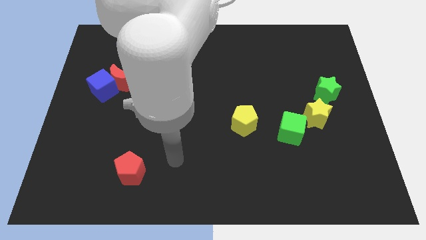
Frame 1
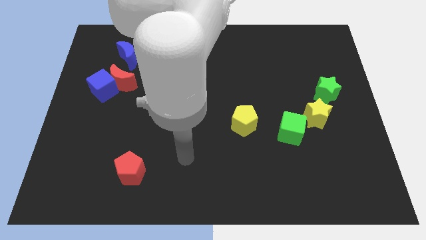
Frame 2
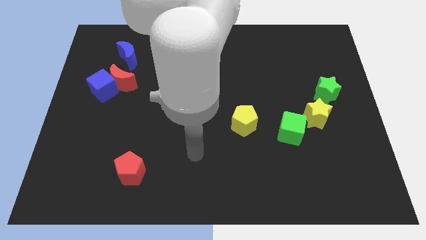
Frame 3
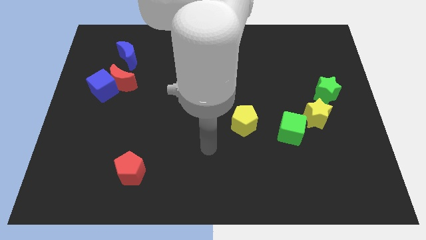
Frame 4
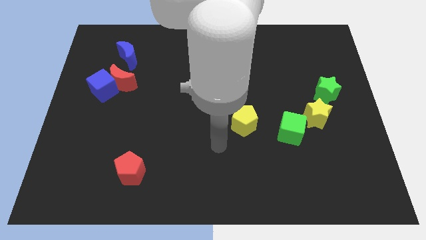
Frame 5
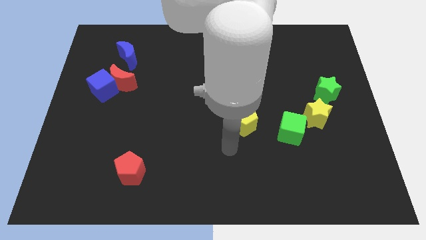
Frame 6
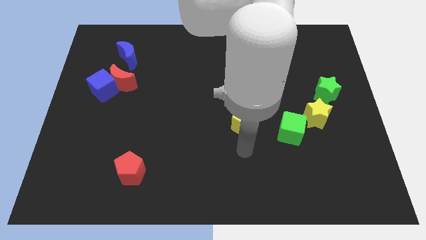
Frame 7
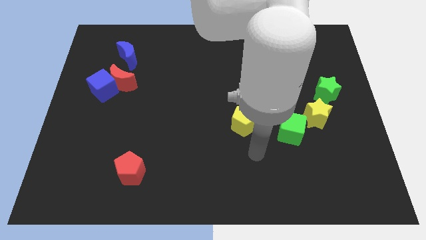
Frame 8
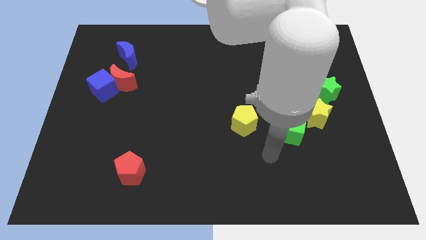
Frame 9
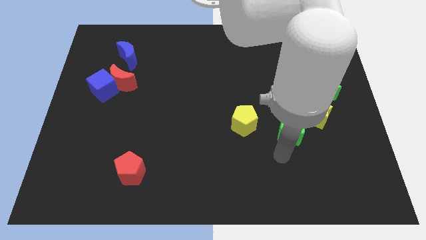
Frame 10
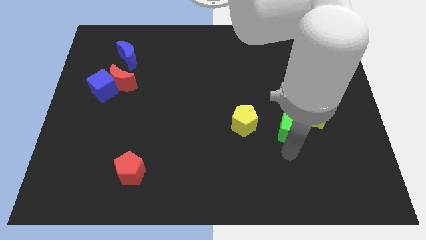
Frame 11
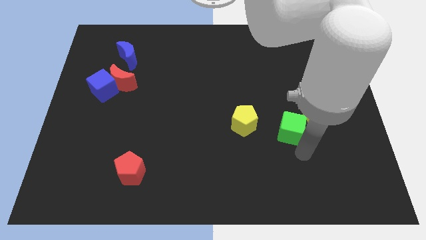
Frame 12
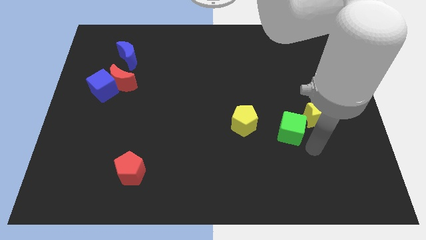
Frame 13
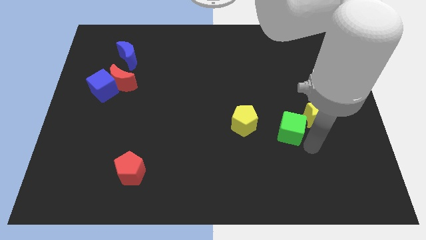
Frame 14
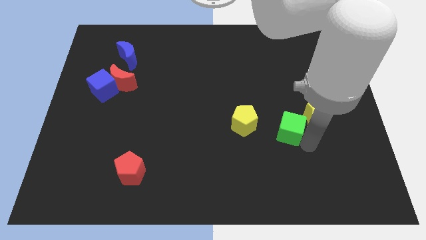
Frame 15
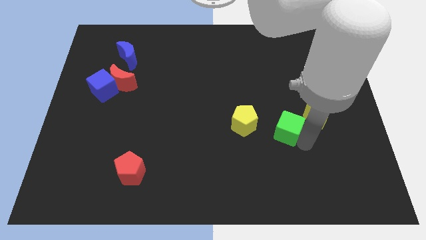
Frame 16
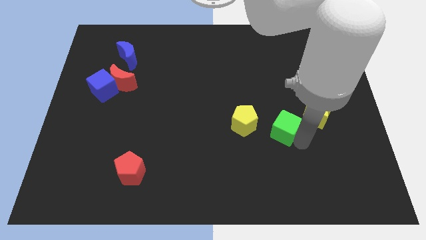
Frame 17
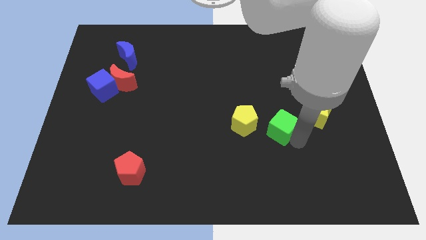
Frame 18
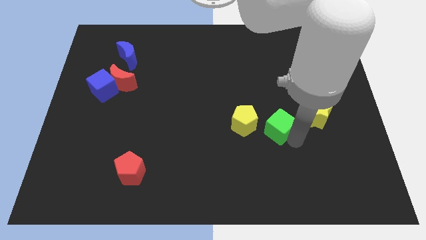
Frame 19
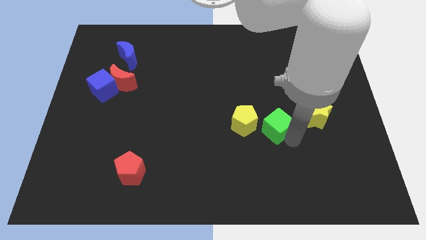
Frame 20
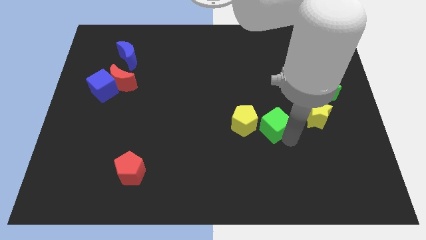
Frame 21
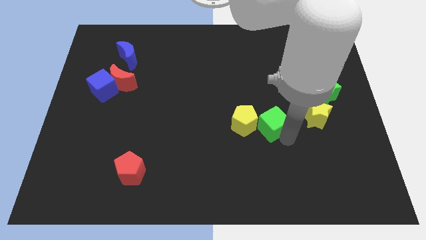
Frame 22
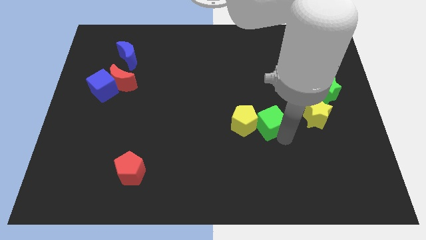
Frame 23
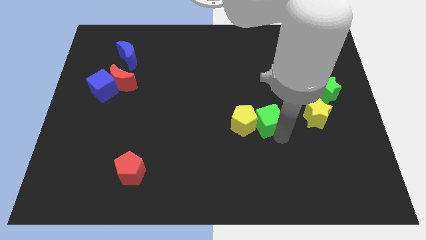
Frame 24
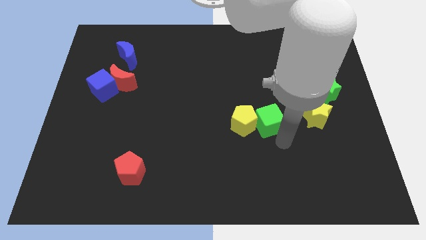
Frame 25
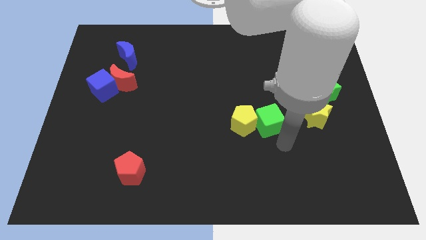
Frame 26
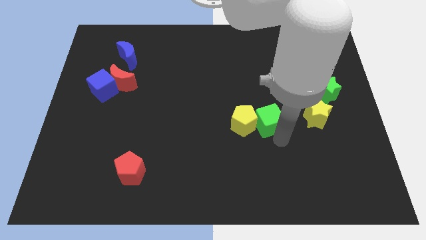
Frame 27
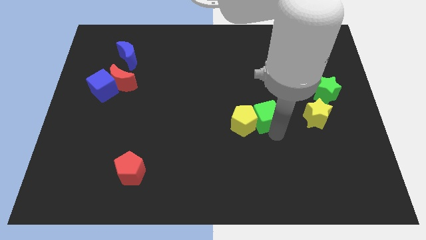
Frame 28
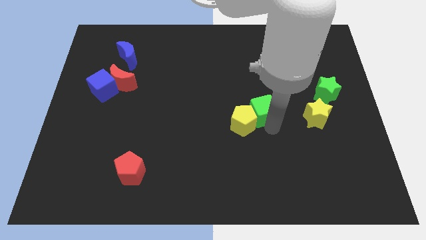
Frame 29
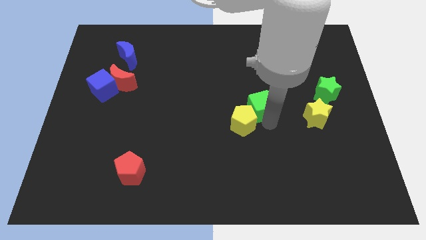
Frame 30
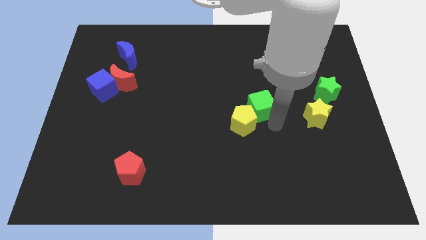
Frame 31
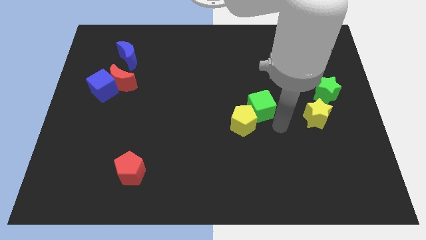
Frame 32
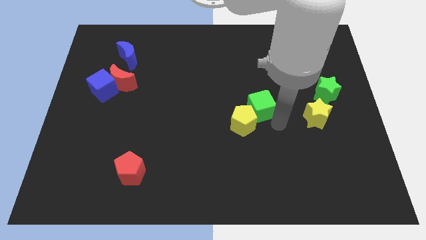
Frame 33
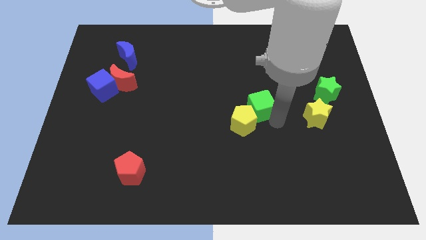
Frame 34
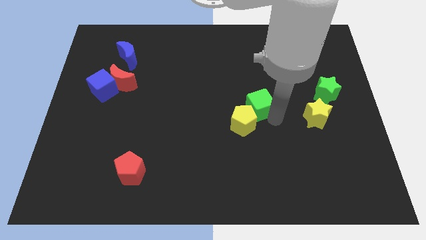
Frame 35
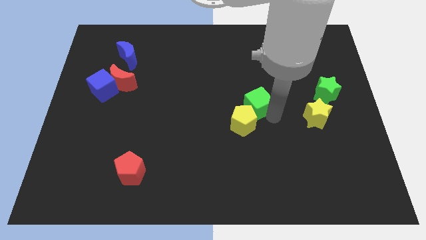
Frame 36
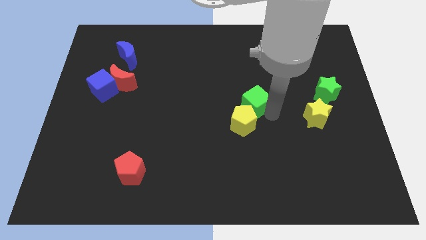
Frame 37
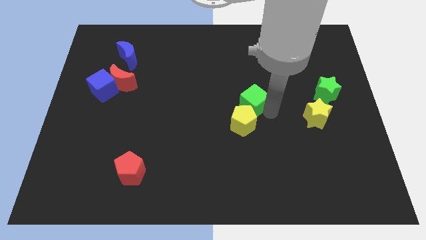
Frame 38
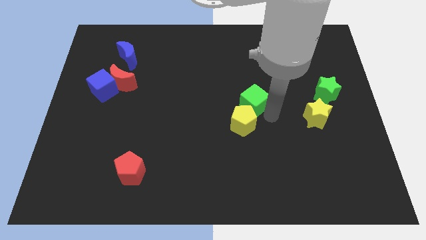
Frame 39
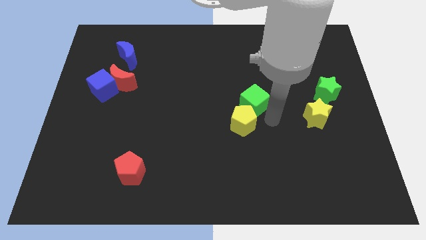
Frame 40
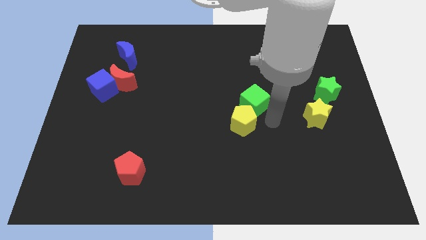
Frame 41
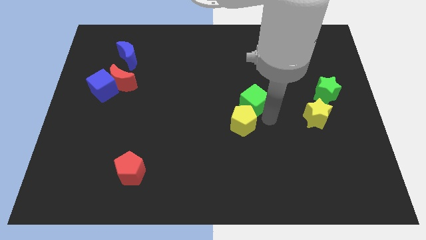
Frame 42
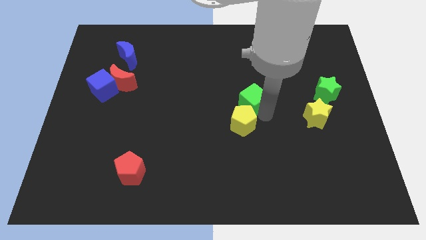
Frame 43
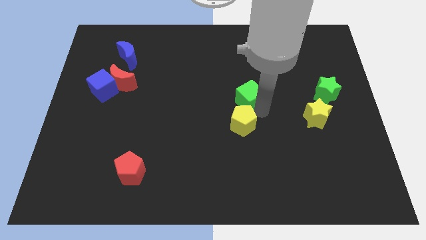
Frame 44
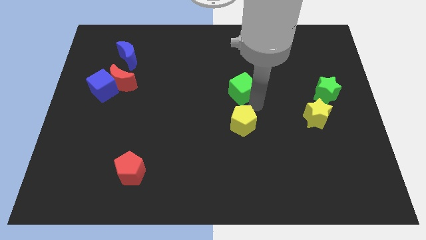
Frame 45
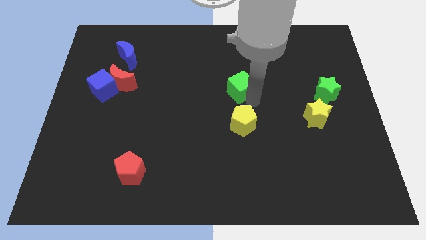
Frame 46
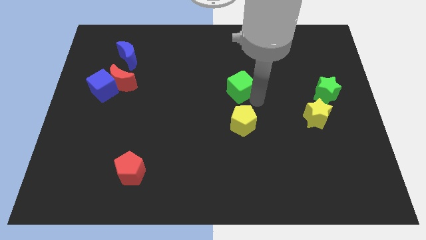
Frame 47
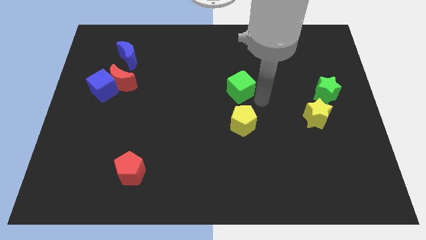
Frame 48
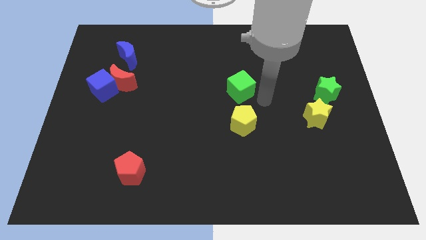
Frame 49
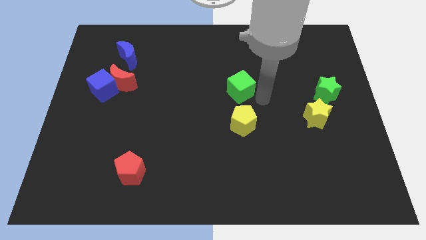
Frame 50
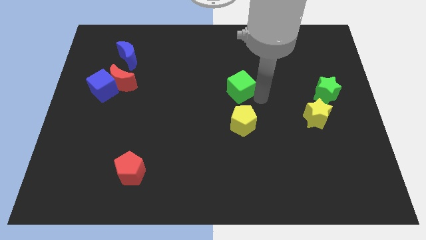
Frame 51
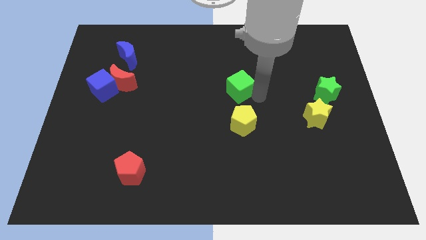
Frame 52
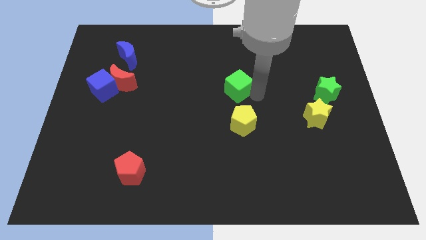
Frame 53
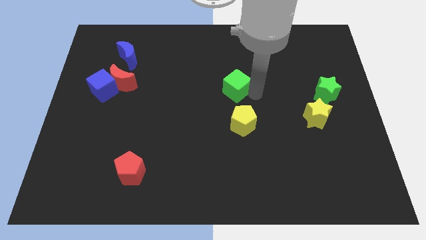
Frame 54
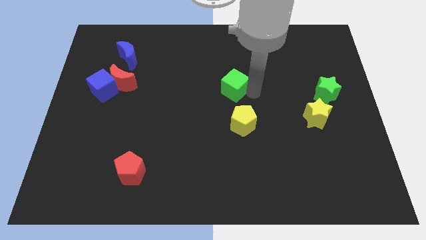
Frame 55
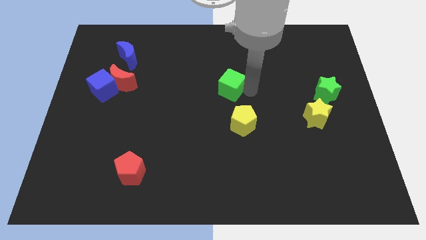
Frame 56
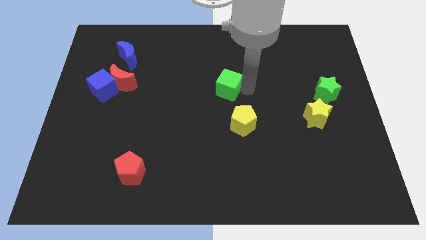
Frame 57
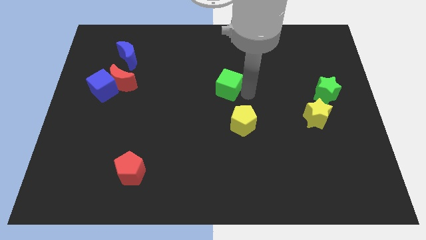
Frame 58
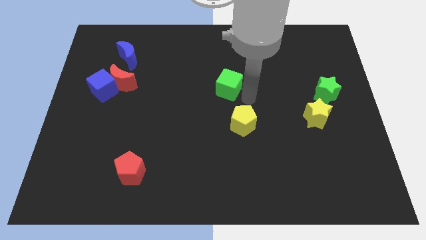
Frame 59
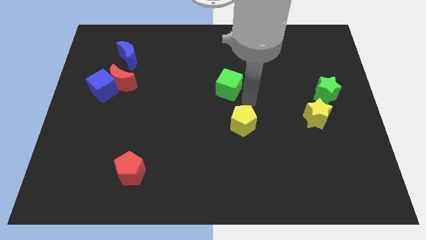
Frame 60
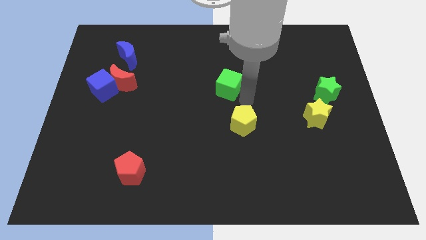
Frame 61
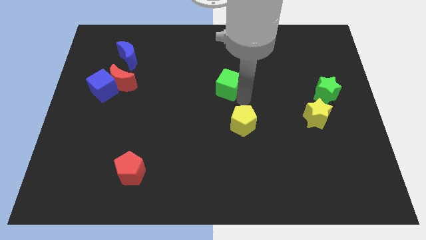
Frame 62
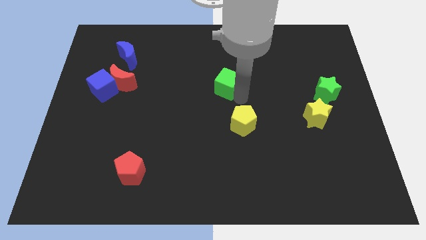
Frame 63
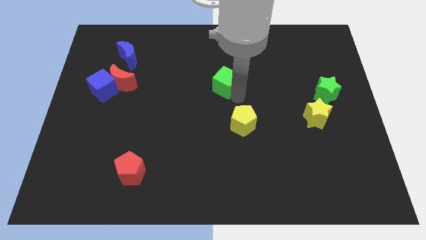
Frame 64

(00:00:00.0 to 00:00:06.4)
slide the green cube diagonally upwards and to the left

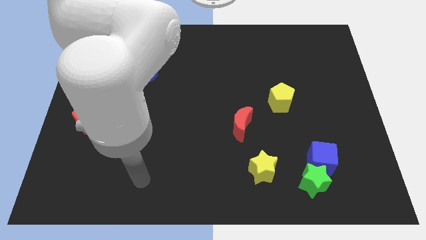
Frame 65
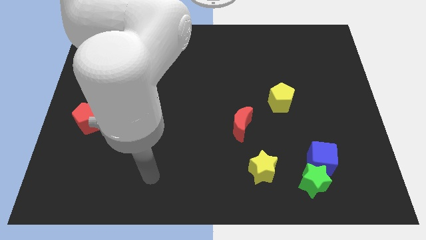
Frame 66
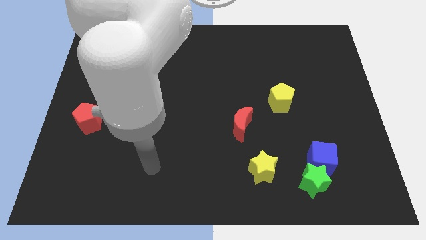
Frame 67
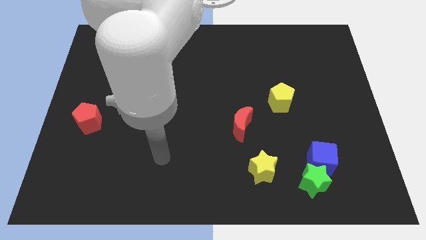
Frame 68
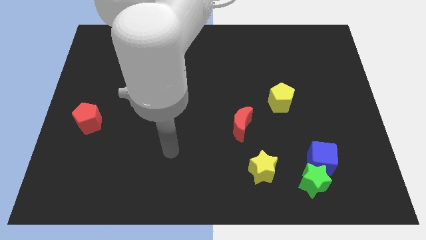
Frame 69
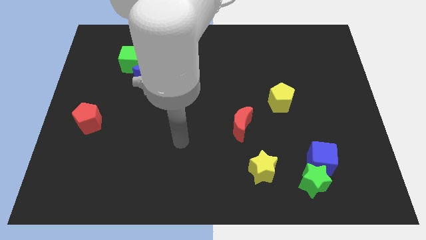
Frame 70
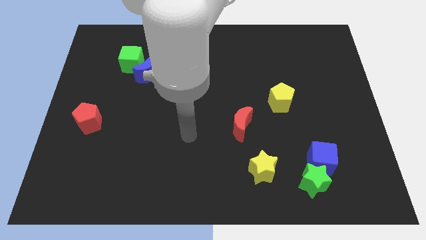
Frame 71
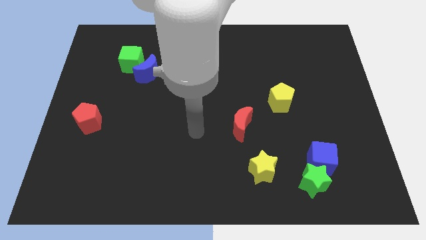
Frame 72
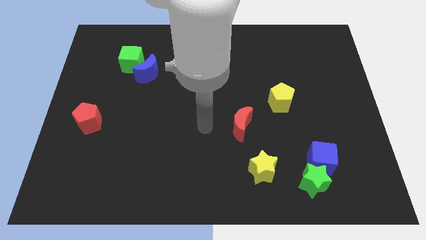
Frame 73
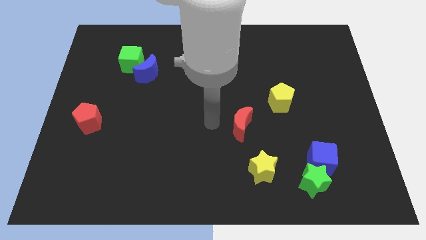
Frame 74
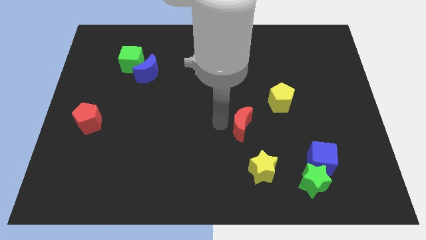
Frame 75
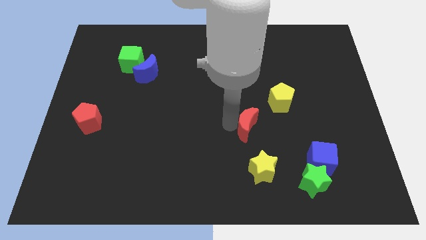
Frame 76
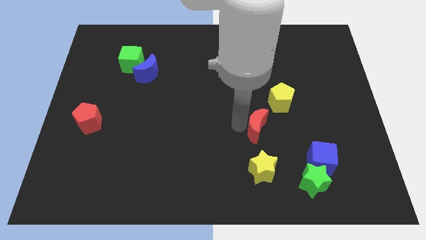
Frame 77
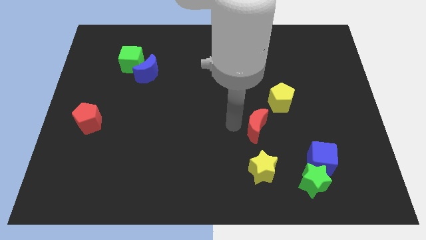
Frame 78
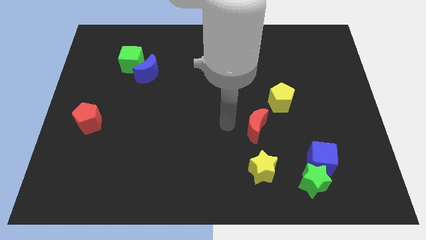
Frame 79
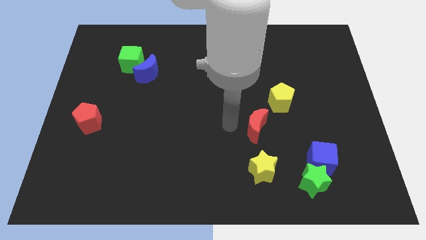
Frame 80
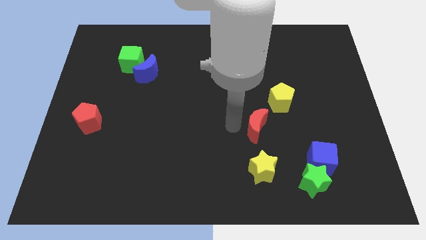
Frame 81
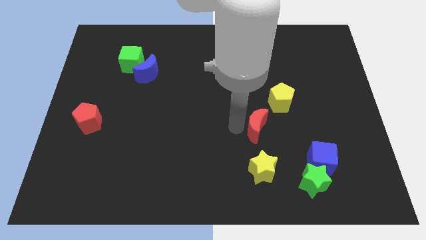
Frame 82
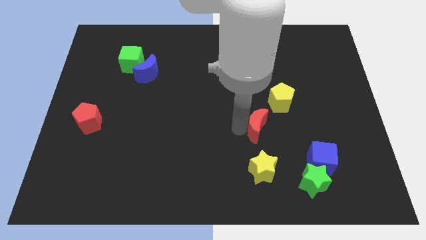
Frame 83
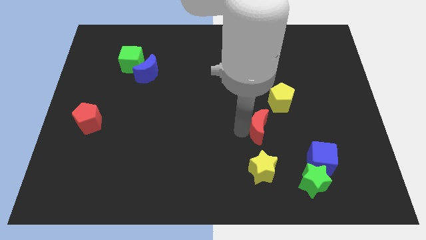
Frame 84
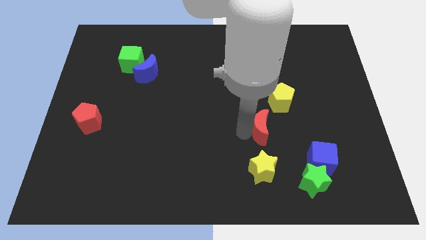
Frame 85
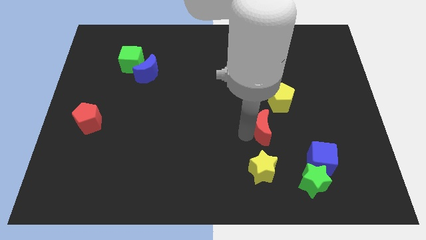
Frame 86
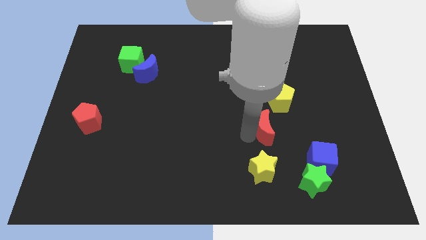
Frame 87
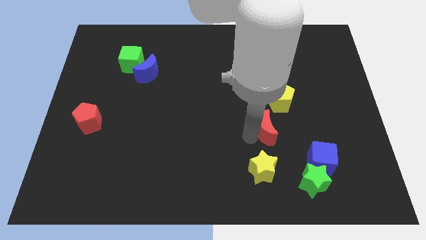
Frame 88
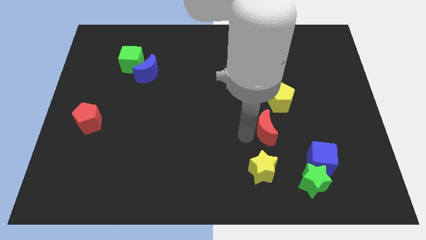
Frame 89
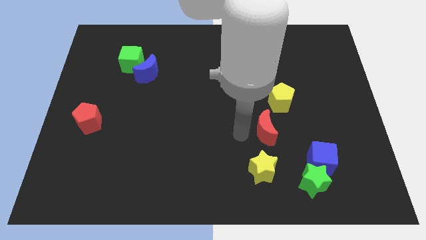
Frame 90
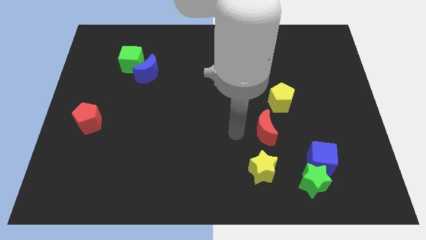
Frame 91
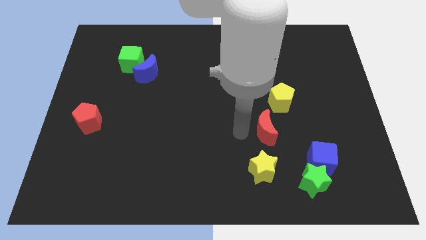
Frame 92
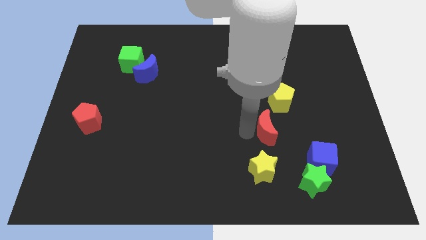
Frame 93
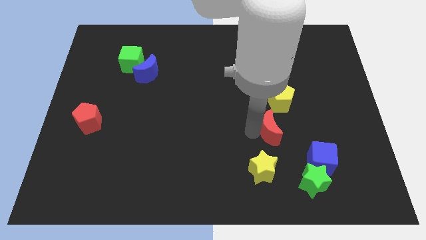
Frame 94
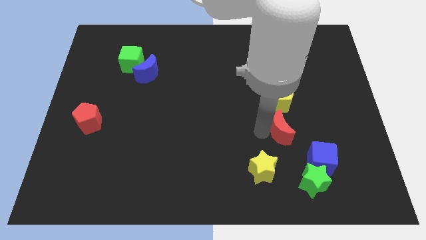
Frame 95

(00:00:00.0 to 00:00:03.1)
slide the red moon slightly to the right
